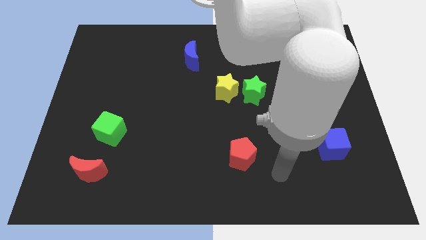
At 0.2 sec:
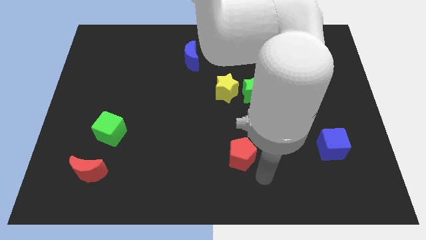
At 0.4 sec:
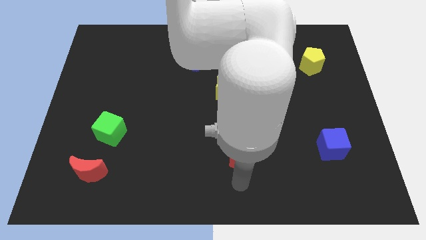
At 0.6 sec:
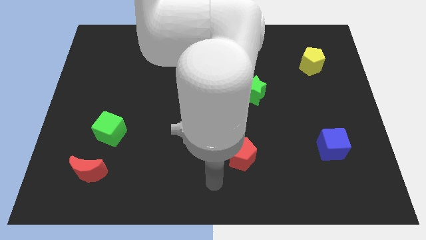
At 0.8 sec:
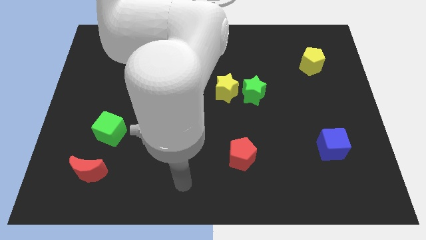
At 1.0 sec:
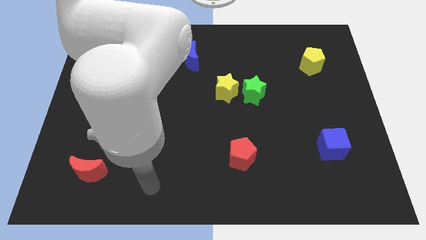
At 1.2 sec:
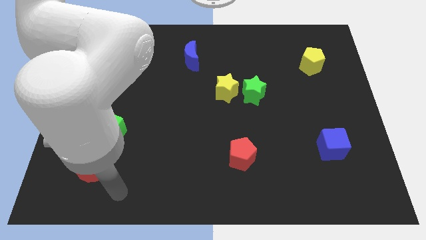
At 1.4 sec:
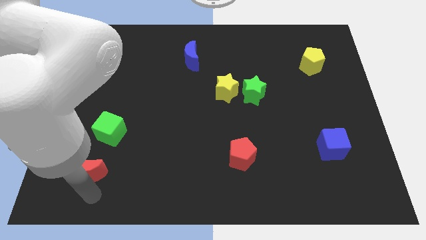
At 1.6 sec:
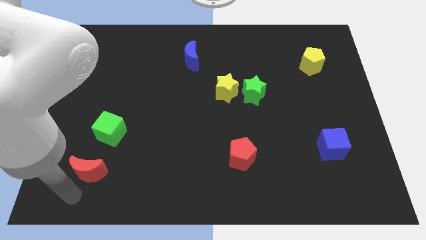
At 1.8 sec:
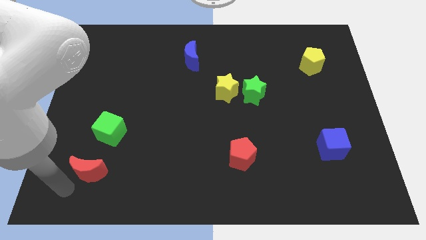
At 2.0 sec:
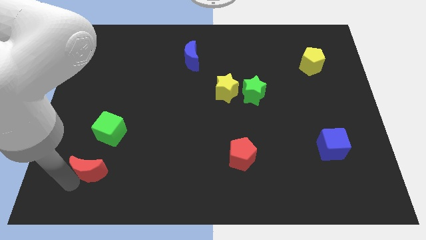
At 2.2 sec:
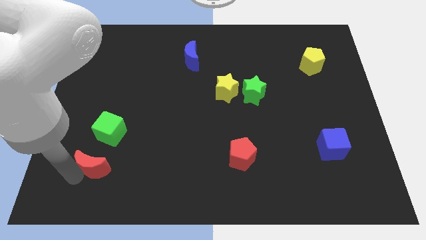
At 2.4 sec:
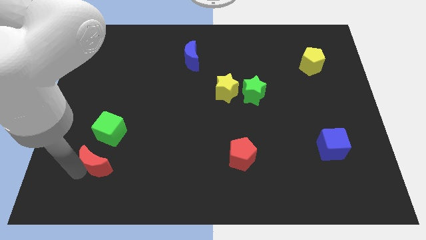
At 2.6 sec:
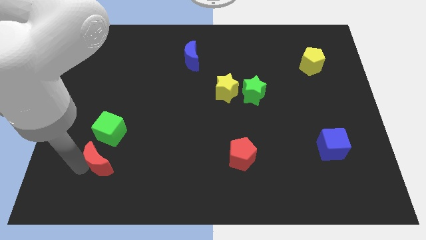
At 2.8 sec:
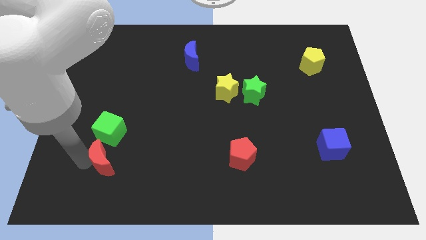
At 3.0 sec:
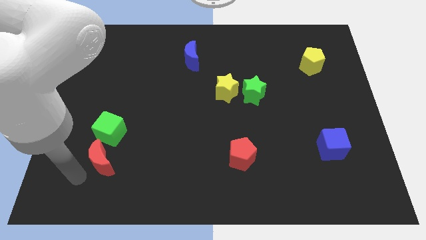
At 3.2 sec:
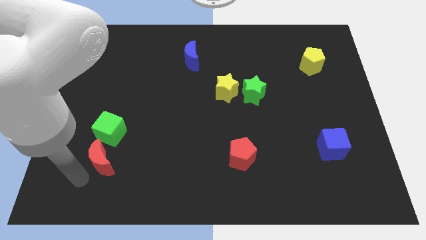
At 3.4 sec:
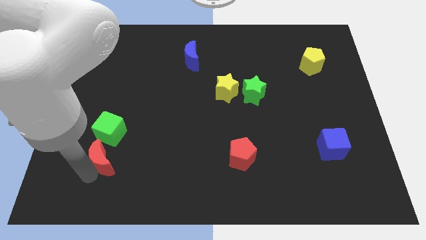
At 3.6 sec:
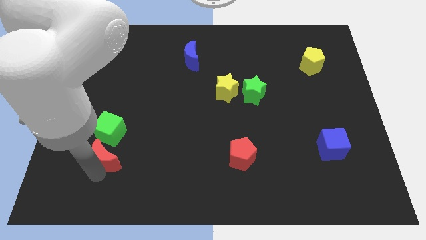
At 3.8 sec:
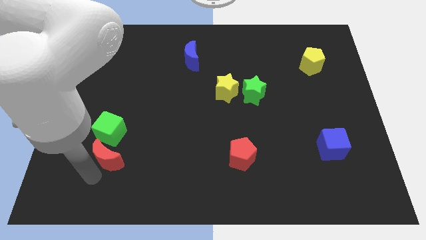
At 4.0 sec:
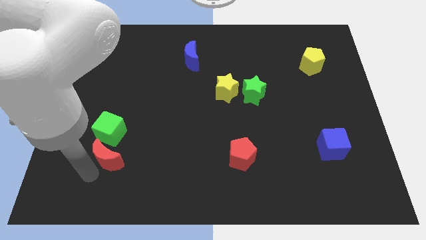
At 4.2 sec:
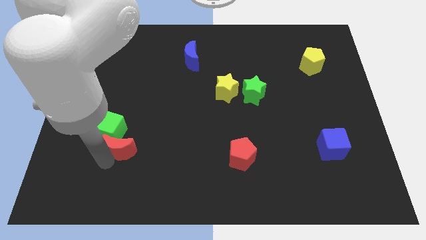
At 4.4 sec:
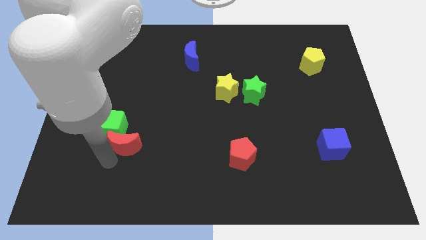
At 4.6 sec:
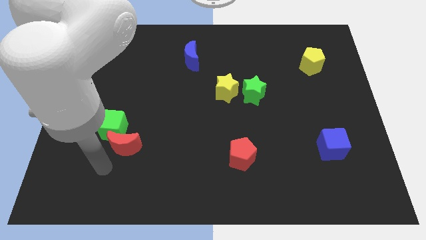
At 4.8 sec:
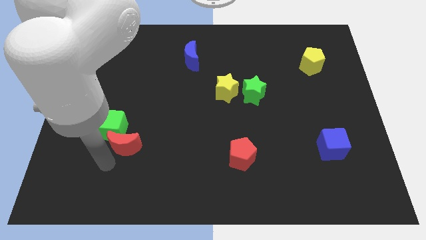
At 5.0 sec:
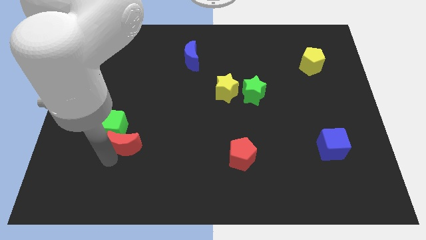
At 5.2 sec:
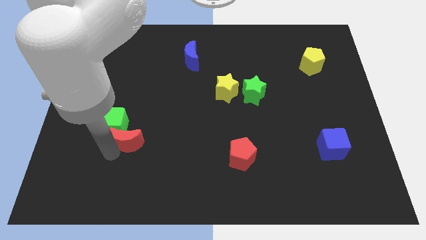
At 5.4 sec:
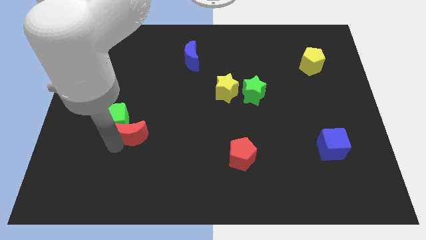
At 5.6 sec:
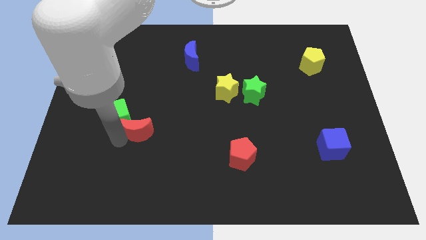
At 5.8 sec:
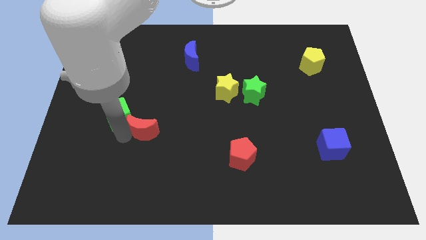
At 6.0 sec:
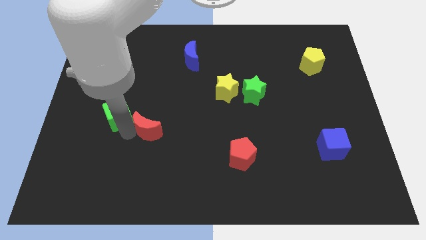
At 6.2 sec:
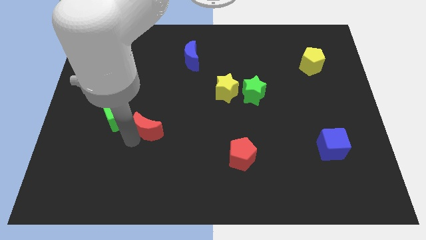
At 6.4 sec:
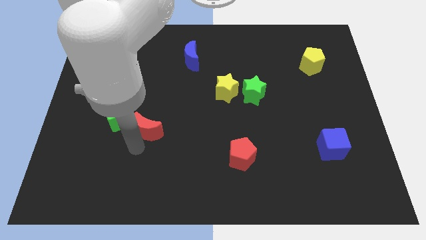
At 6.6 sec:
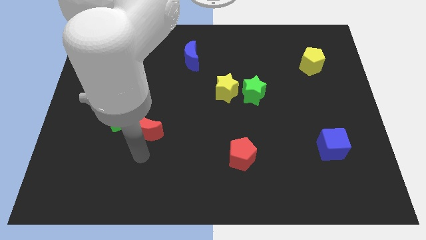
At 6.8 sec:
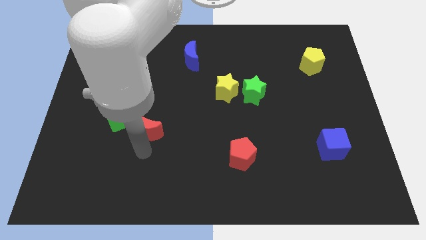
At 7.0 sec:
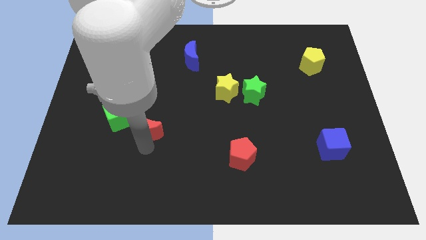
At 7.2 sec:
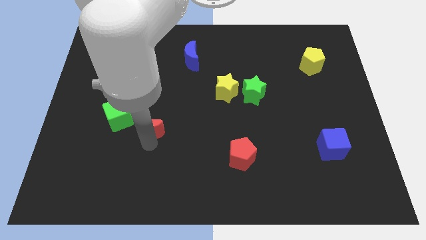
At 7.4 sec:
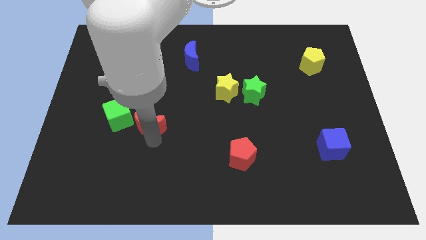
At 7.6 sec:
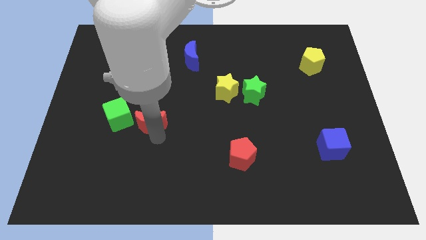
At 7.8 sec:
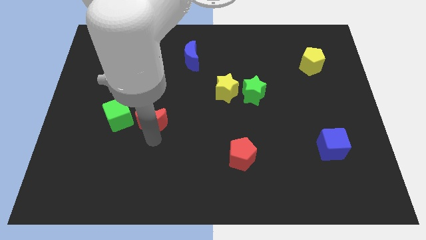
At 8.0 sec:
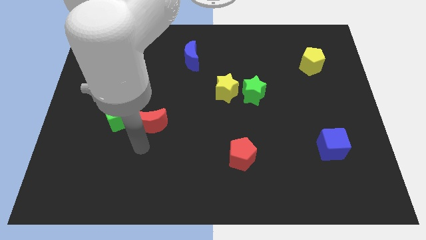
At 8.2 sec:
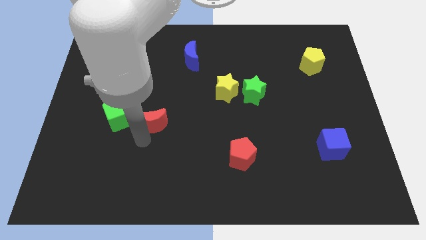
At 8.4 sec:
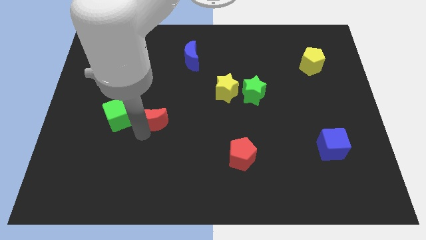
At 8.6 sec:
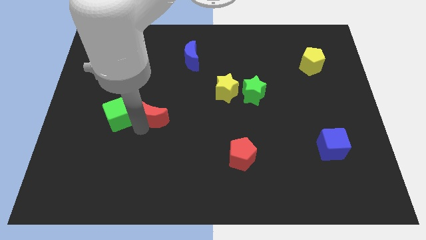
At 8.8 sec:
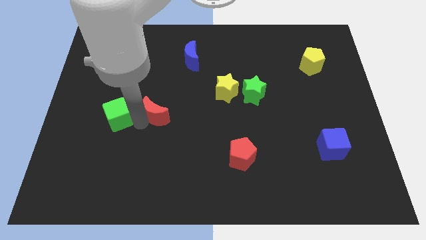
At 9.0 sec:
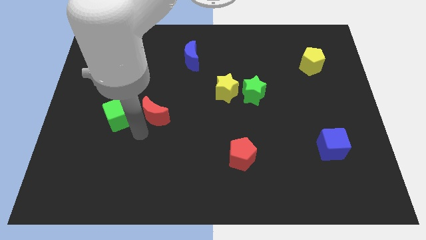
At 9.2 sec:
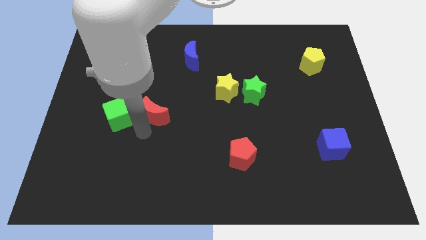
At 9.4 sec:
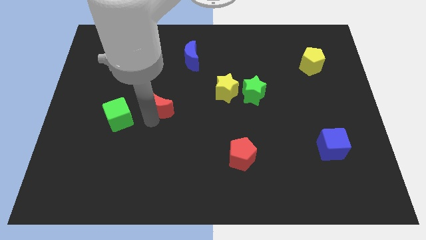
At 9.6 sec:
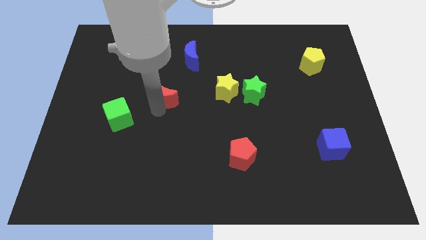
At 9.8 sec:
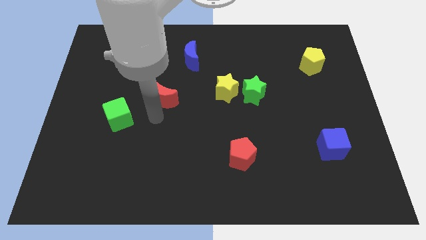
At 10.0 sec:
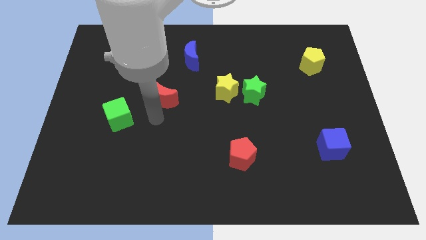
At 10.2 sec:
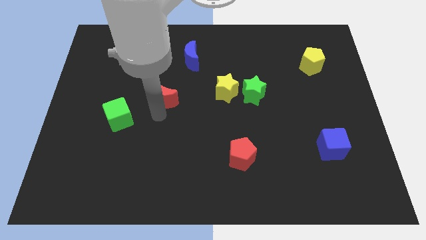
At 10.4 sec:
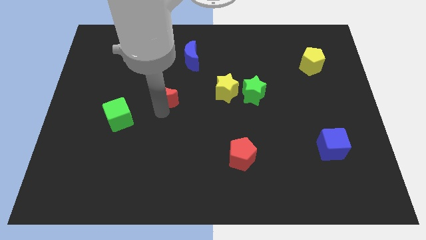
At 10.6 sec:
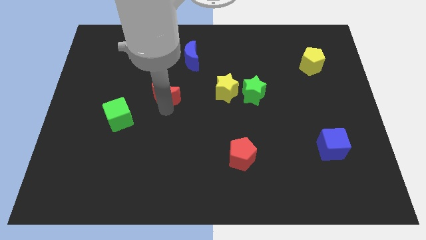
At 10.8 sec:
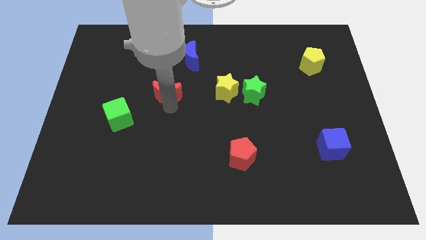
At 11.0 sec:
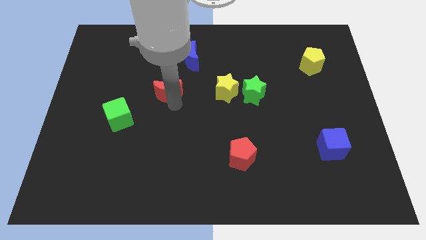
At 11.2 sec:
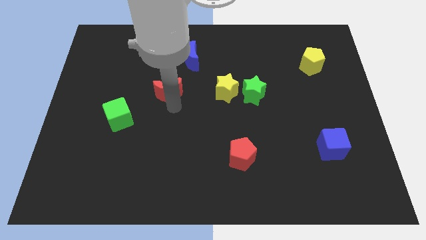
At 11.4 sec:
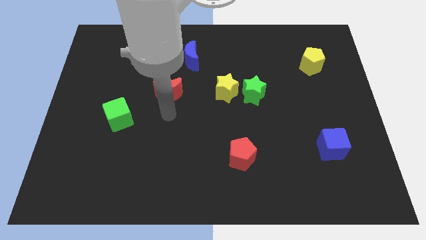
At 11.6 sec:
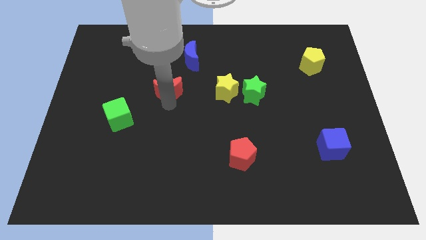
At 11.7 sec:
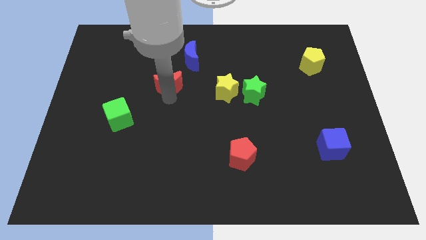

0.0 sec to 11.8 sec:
push the red moon to the bottom left of the blue moon

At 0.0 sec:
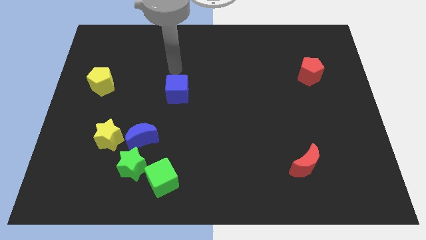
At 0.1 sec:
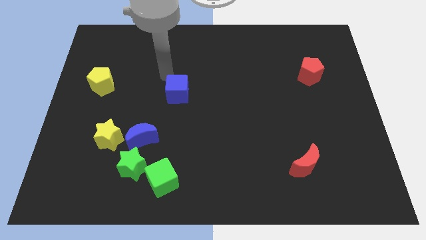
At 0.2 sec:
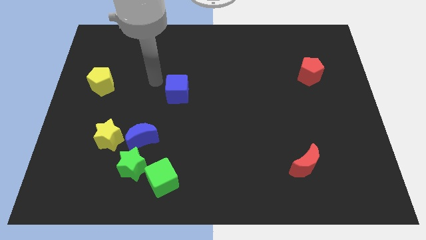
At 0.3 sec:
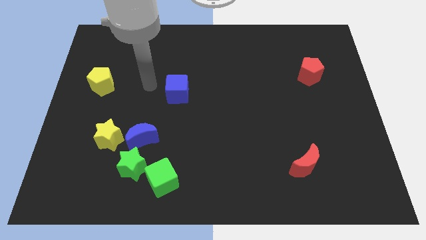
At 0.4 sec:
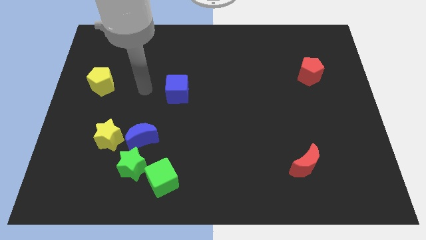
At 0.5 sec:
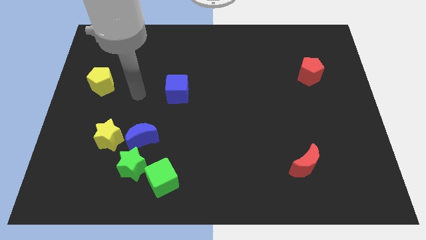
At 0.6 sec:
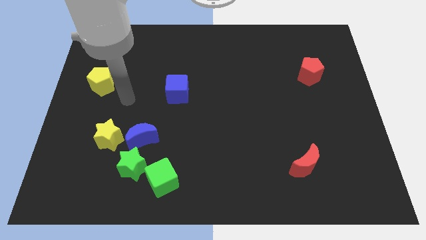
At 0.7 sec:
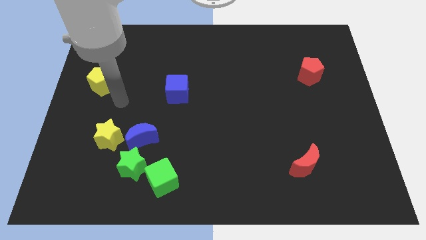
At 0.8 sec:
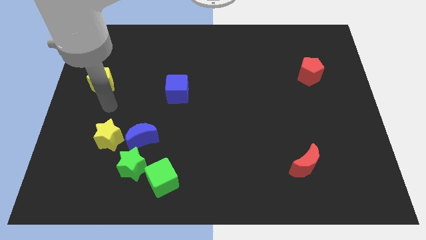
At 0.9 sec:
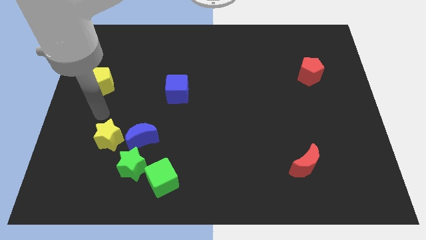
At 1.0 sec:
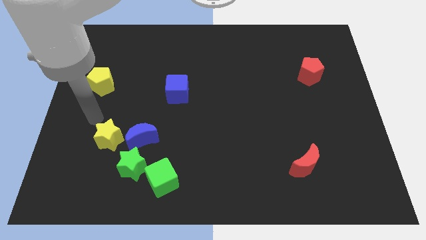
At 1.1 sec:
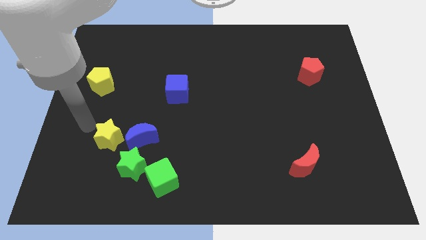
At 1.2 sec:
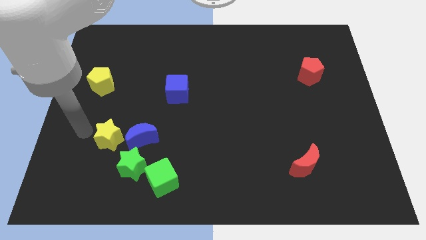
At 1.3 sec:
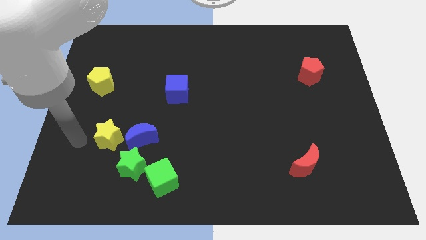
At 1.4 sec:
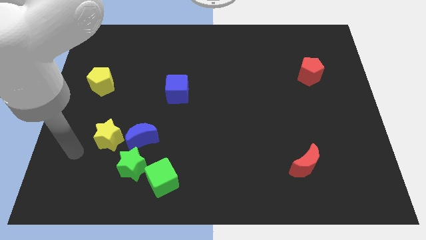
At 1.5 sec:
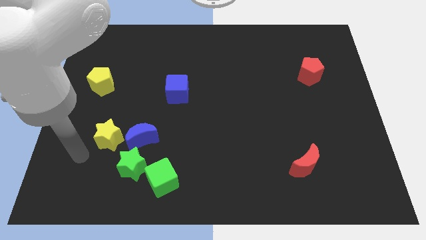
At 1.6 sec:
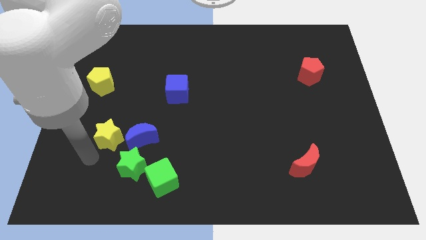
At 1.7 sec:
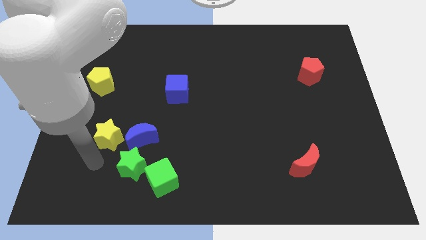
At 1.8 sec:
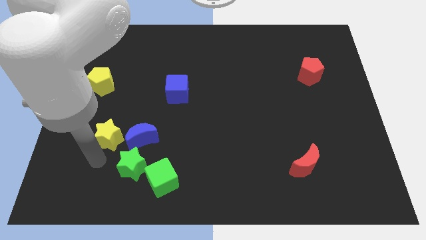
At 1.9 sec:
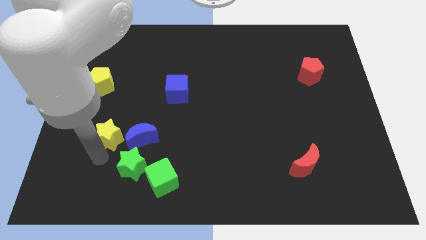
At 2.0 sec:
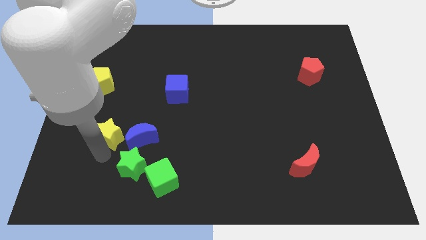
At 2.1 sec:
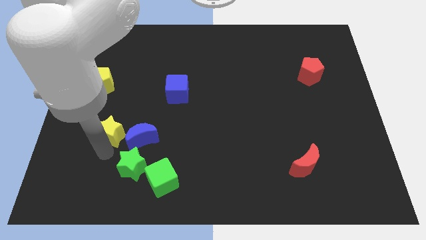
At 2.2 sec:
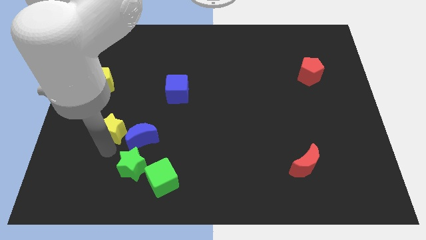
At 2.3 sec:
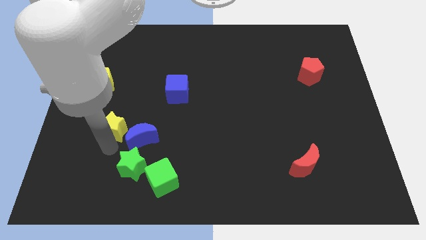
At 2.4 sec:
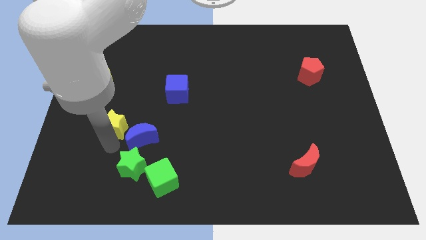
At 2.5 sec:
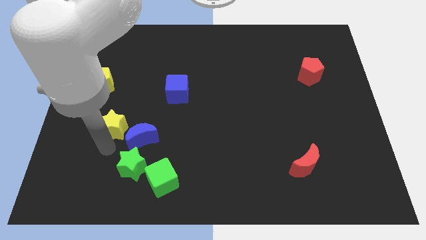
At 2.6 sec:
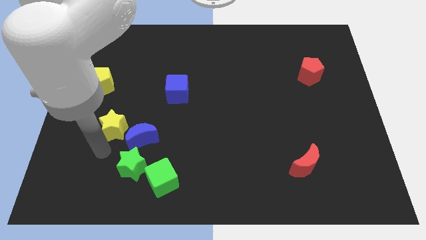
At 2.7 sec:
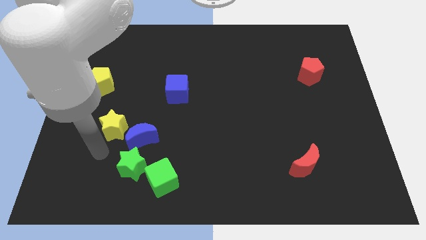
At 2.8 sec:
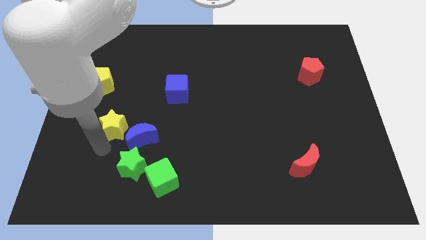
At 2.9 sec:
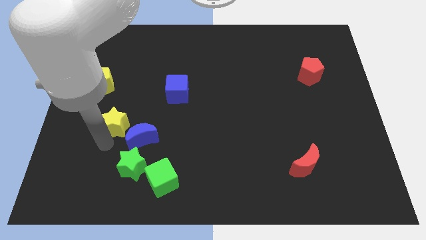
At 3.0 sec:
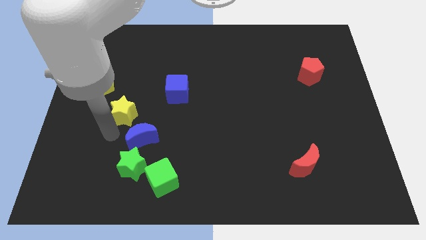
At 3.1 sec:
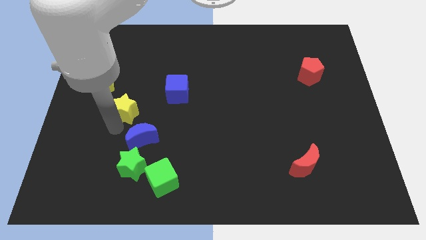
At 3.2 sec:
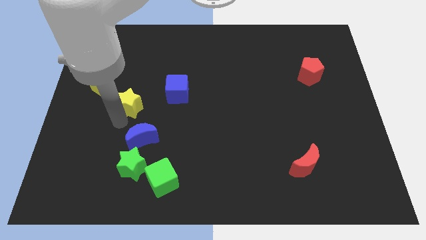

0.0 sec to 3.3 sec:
put the yellow star left of the blue cube
